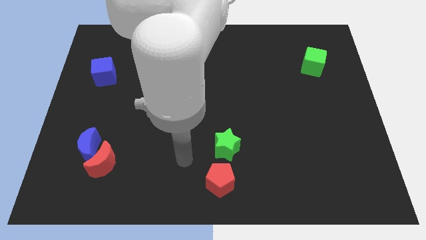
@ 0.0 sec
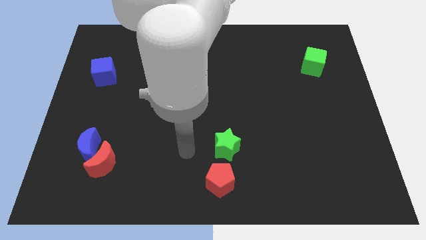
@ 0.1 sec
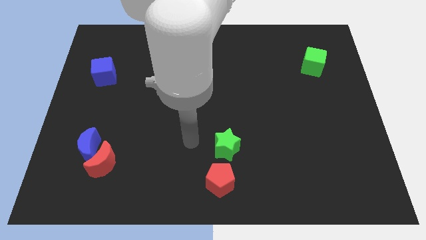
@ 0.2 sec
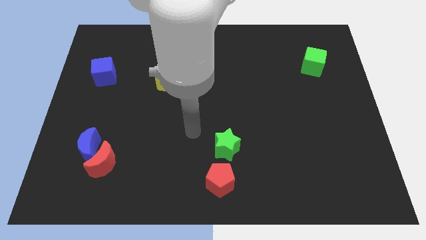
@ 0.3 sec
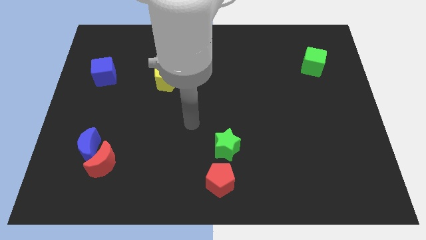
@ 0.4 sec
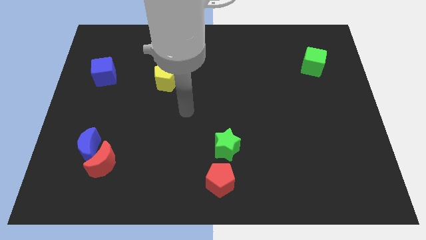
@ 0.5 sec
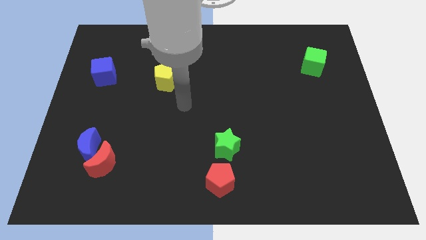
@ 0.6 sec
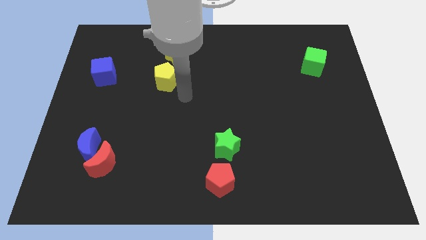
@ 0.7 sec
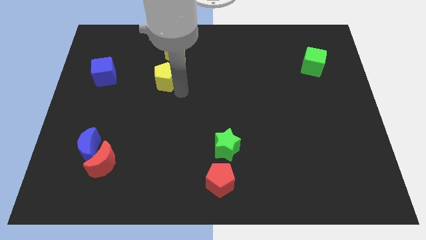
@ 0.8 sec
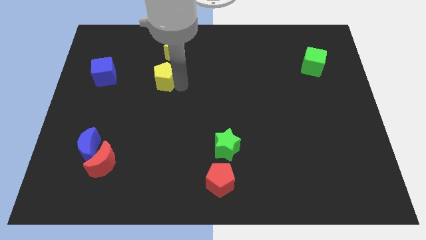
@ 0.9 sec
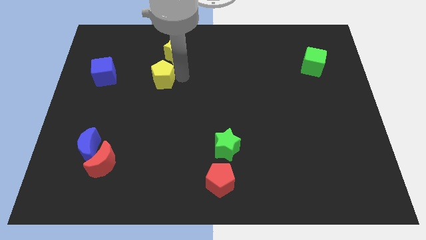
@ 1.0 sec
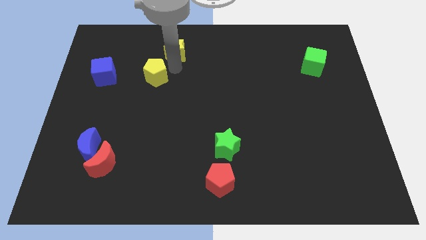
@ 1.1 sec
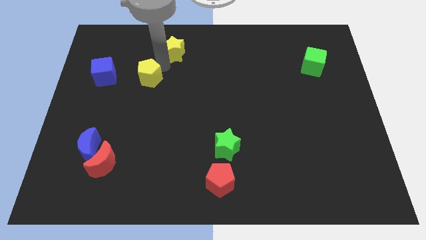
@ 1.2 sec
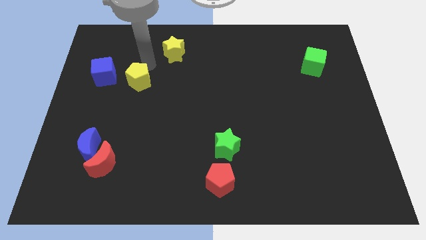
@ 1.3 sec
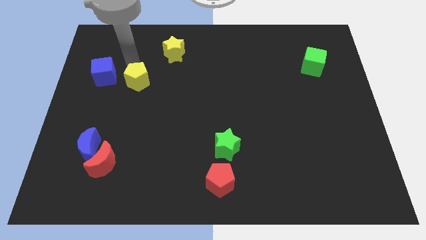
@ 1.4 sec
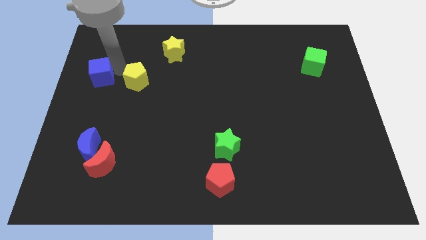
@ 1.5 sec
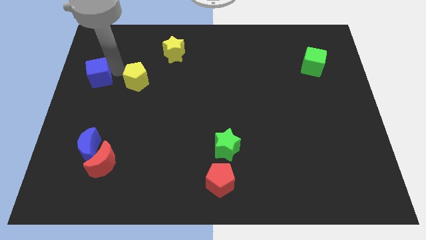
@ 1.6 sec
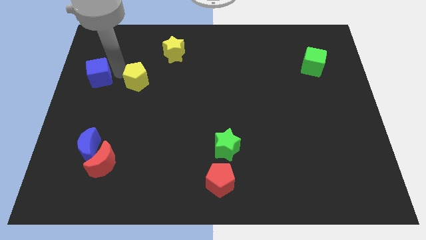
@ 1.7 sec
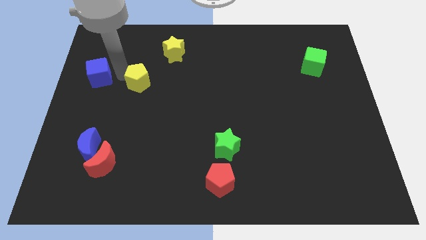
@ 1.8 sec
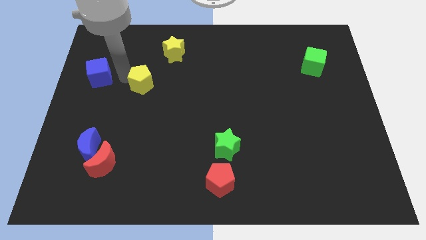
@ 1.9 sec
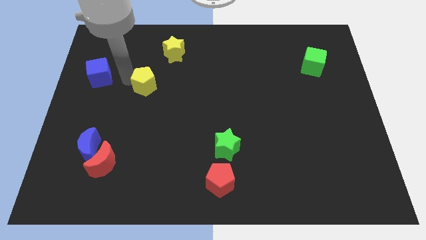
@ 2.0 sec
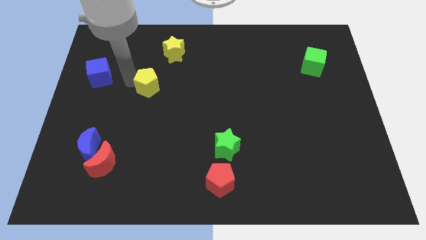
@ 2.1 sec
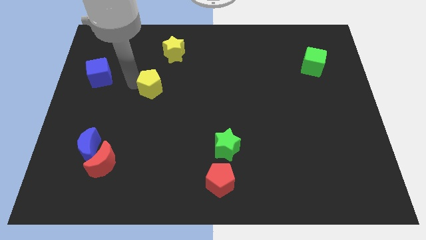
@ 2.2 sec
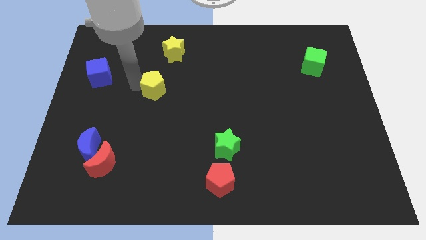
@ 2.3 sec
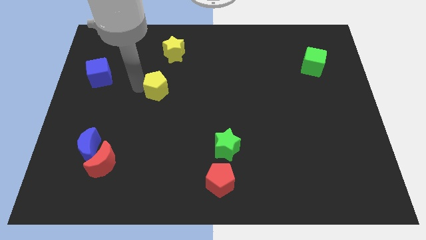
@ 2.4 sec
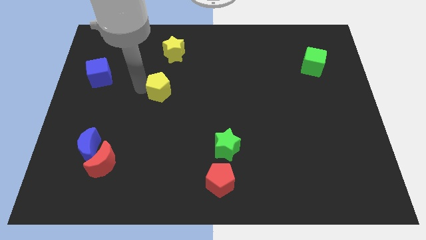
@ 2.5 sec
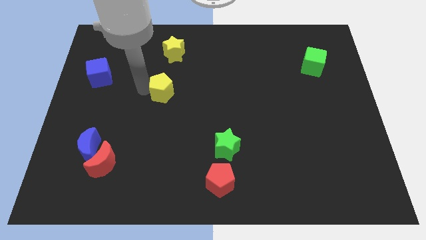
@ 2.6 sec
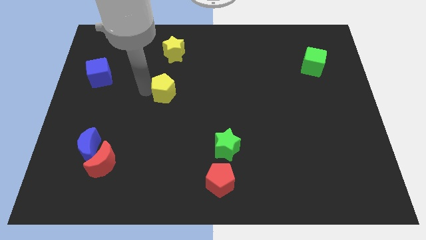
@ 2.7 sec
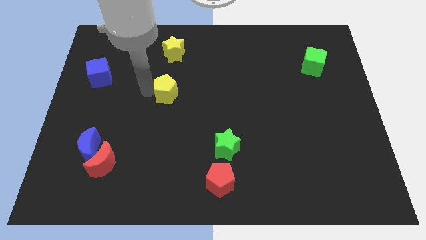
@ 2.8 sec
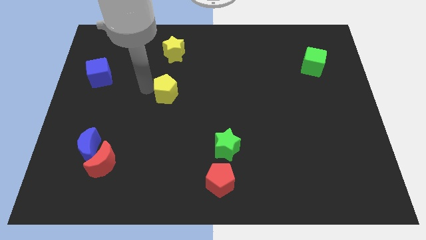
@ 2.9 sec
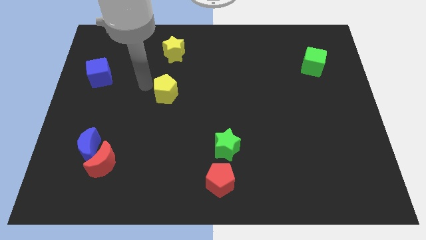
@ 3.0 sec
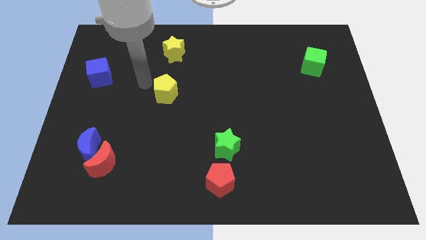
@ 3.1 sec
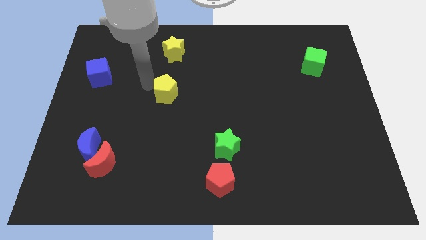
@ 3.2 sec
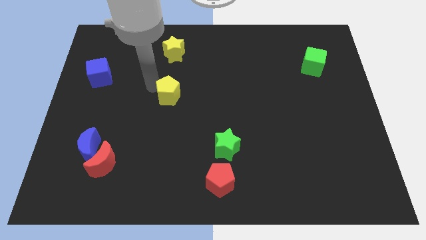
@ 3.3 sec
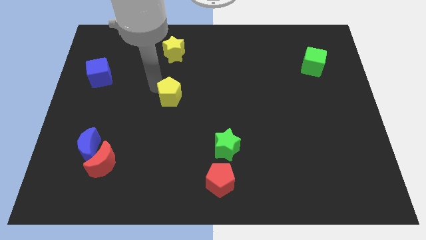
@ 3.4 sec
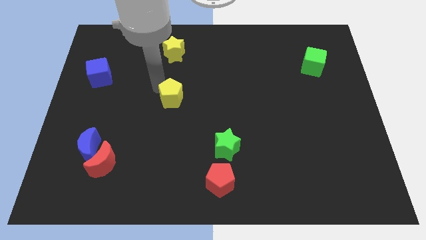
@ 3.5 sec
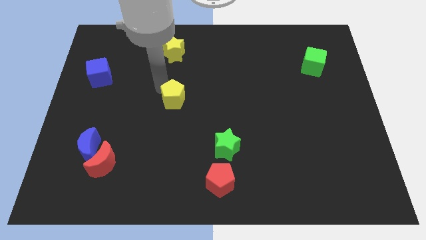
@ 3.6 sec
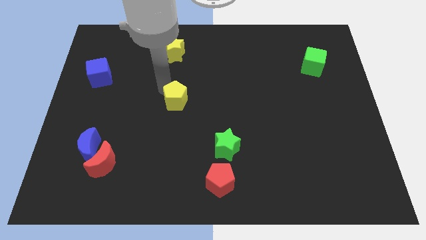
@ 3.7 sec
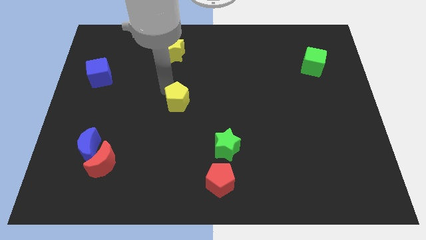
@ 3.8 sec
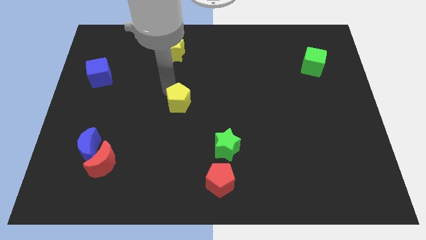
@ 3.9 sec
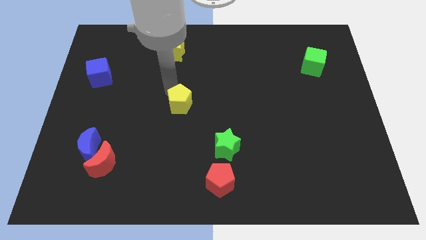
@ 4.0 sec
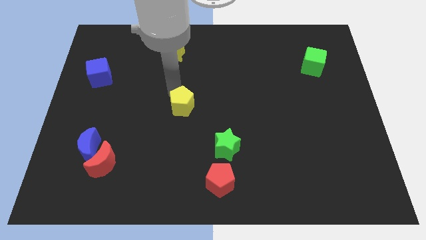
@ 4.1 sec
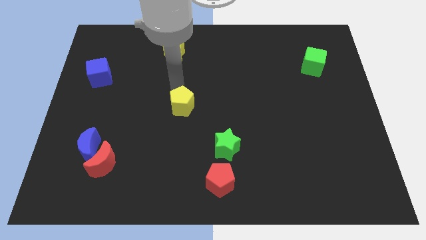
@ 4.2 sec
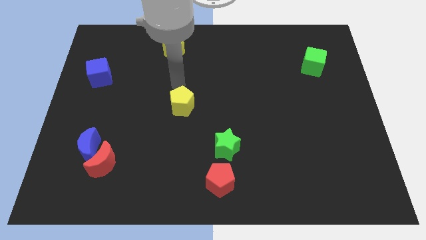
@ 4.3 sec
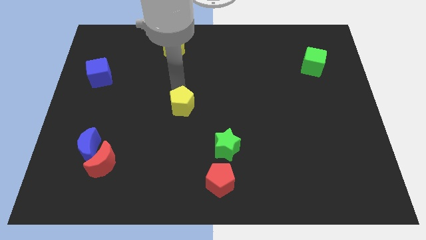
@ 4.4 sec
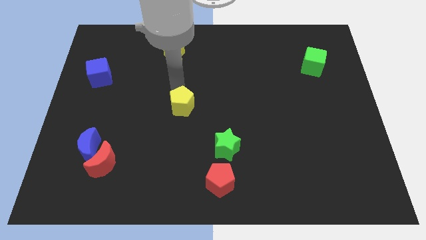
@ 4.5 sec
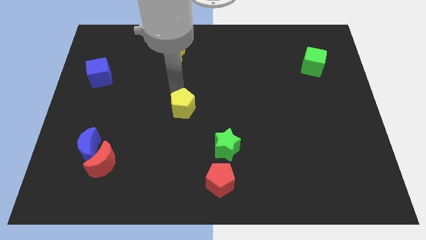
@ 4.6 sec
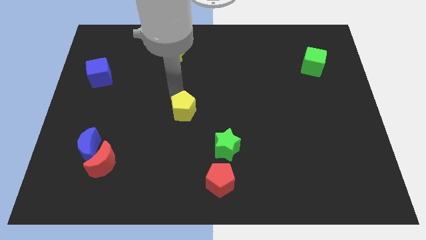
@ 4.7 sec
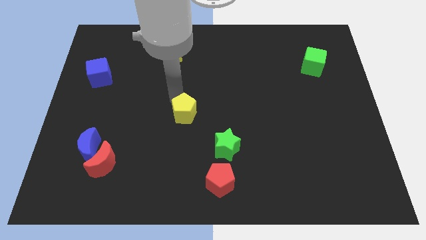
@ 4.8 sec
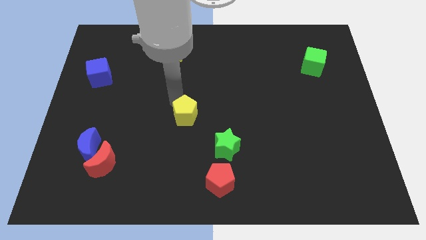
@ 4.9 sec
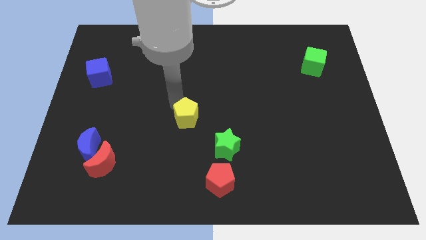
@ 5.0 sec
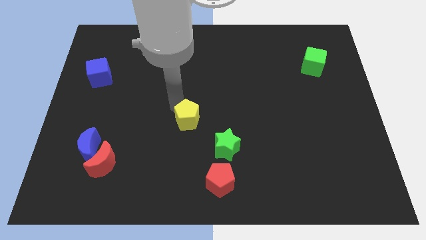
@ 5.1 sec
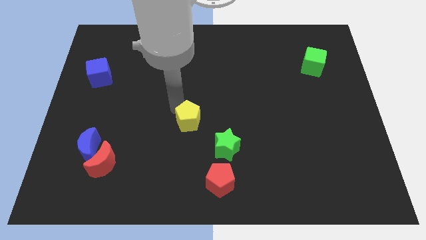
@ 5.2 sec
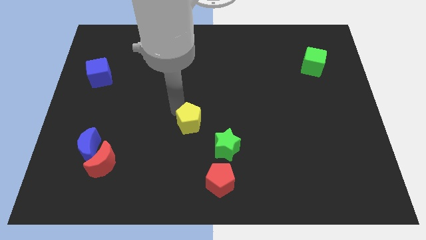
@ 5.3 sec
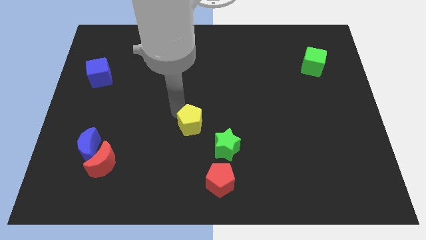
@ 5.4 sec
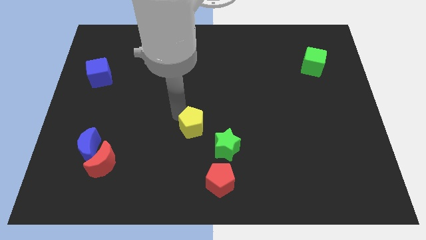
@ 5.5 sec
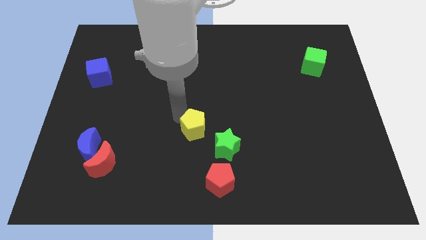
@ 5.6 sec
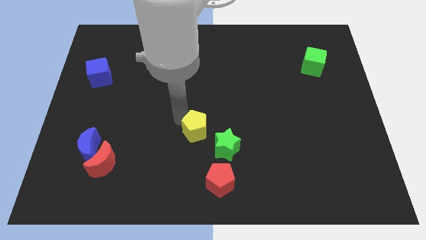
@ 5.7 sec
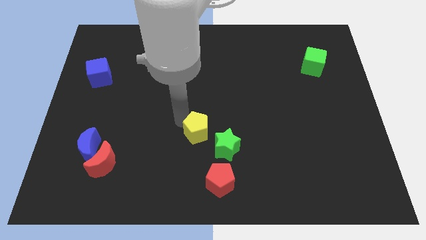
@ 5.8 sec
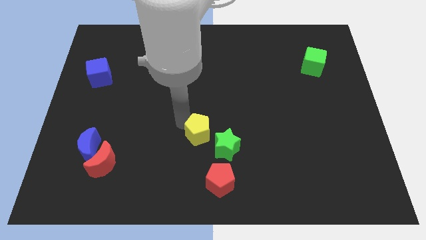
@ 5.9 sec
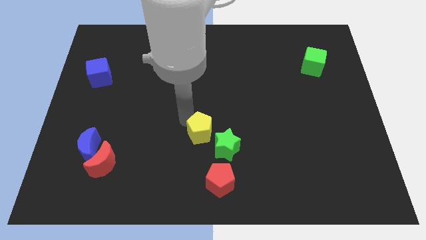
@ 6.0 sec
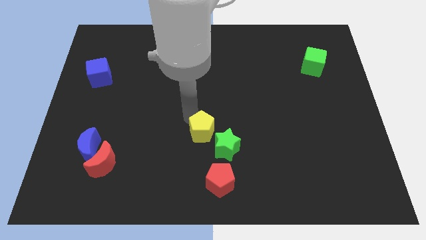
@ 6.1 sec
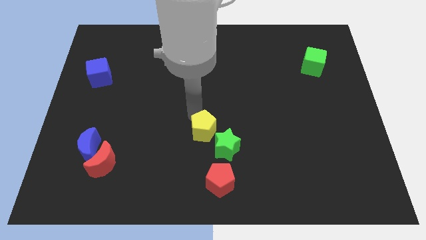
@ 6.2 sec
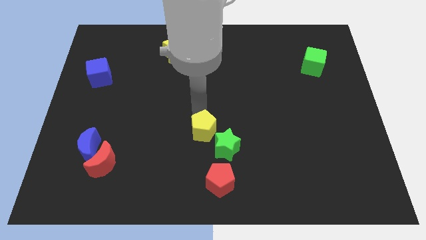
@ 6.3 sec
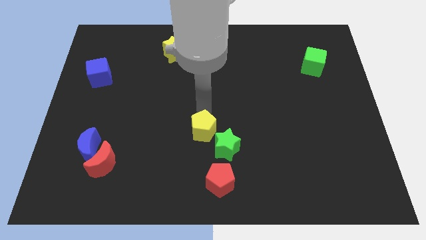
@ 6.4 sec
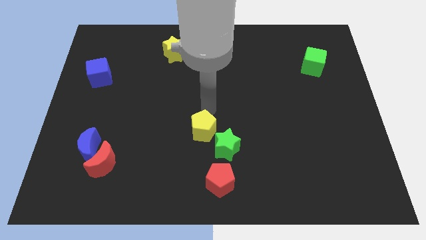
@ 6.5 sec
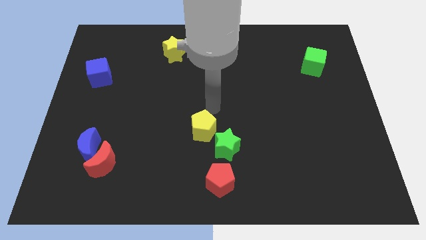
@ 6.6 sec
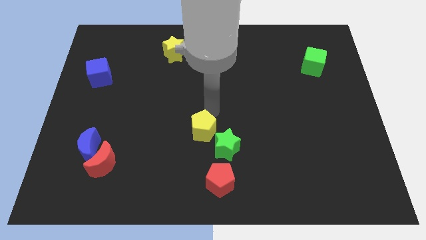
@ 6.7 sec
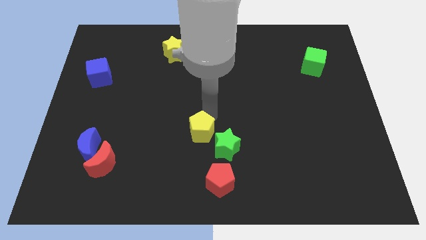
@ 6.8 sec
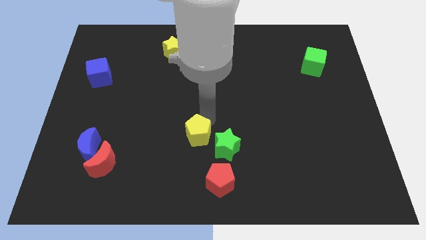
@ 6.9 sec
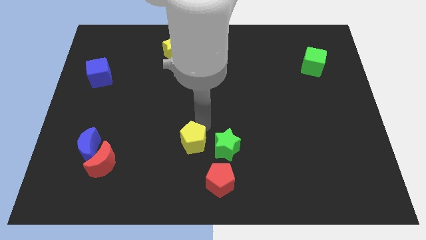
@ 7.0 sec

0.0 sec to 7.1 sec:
slide the yellow pentagon to the top left of the red pentagon
